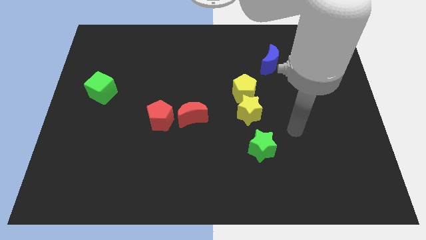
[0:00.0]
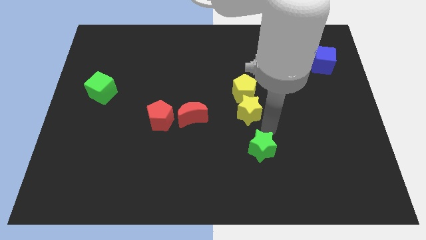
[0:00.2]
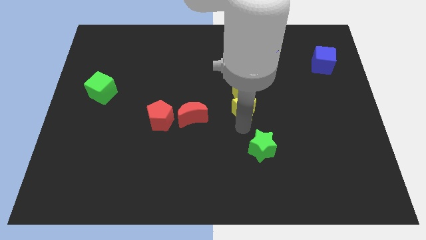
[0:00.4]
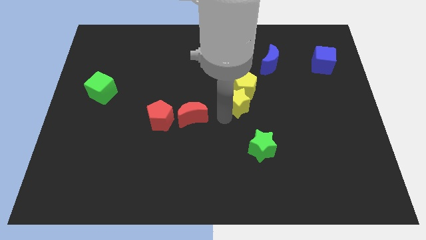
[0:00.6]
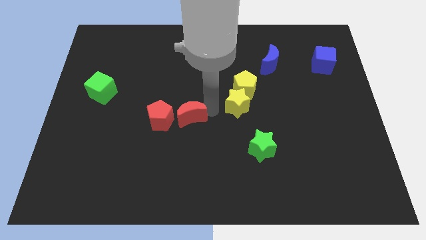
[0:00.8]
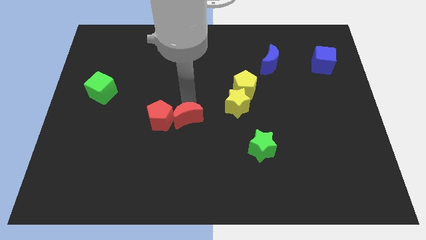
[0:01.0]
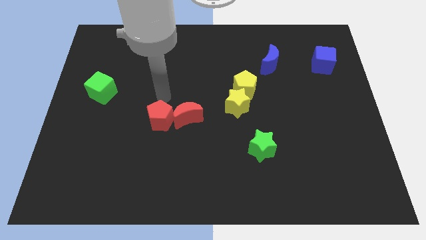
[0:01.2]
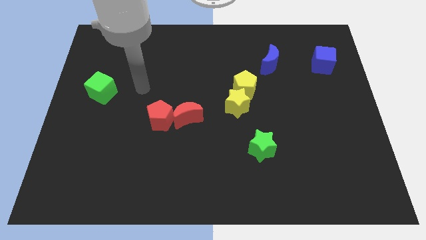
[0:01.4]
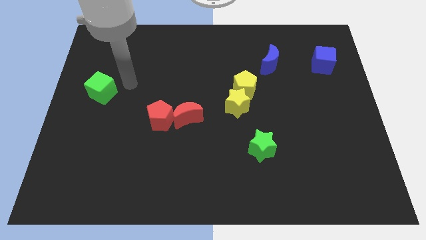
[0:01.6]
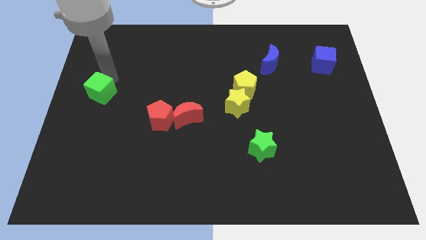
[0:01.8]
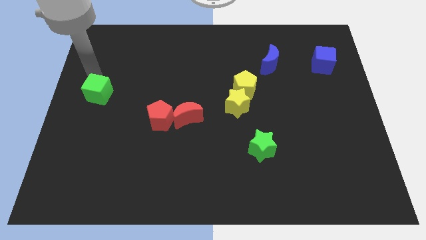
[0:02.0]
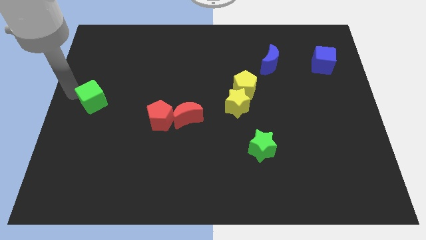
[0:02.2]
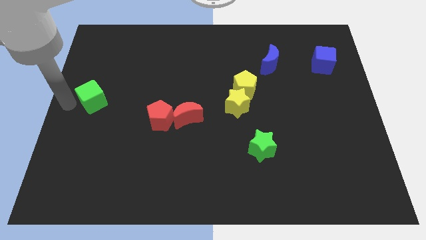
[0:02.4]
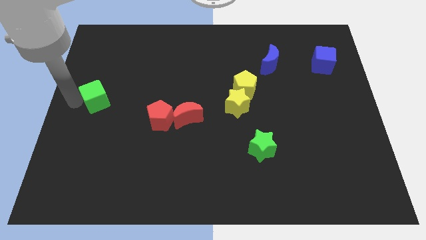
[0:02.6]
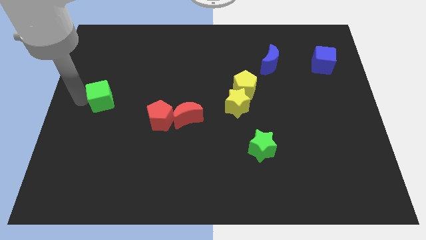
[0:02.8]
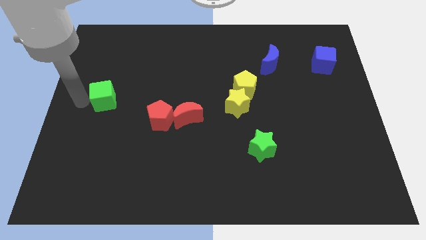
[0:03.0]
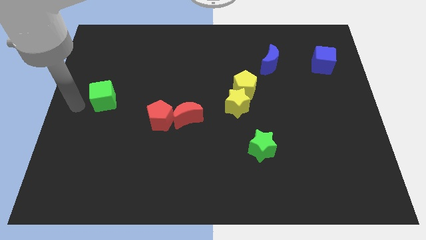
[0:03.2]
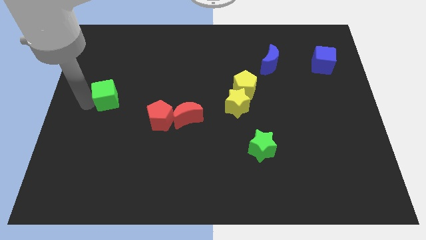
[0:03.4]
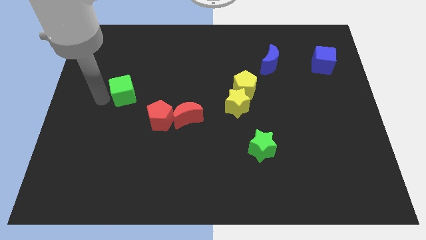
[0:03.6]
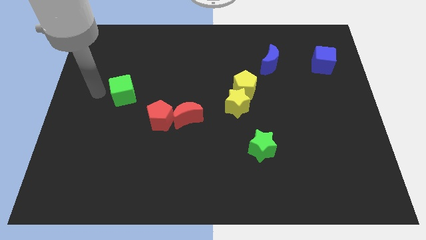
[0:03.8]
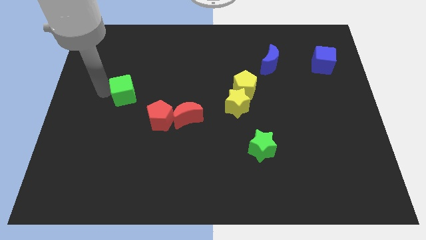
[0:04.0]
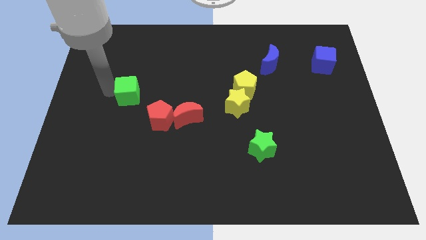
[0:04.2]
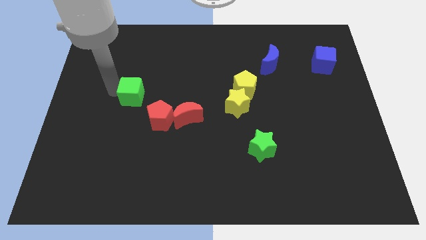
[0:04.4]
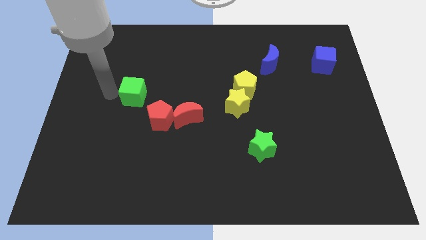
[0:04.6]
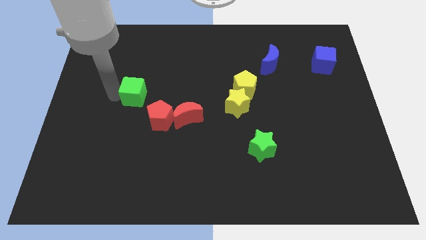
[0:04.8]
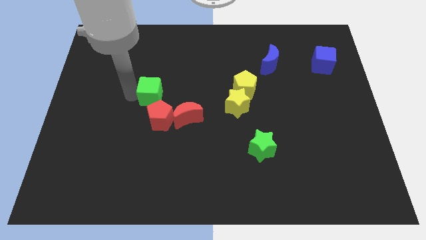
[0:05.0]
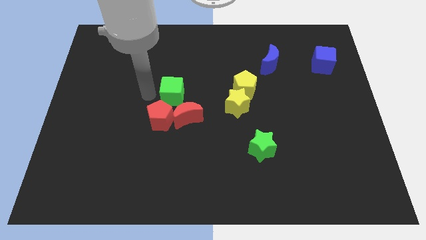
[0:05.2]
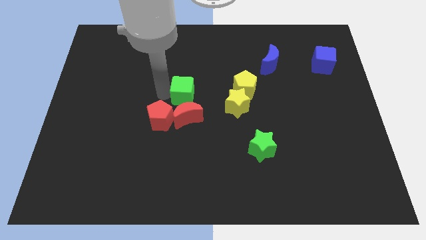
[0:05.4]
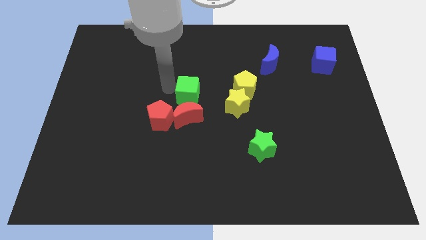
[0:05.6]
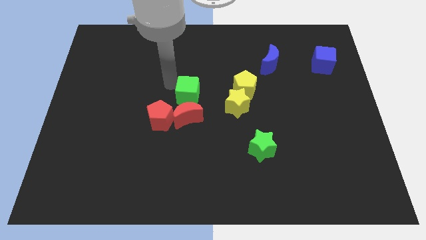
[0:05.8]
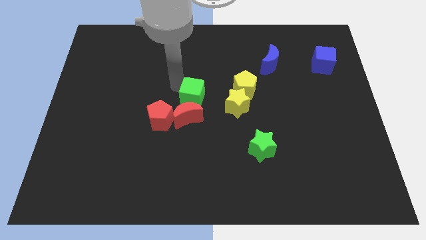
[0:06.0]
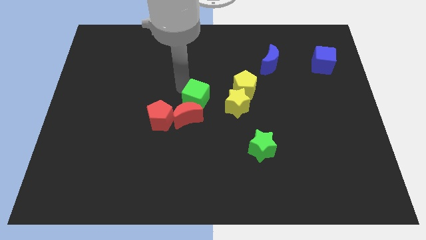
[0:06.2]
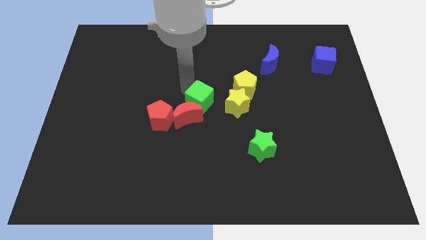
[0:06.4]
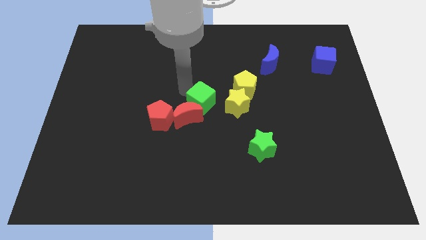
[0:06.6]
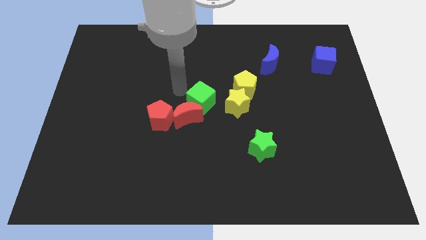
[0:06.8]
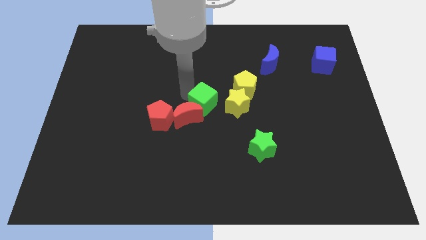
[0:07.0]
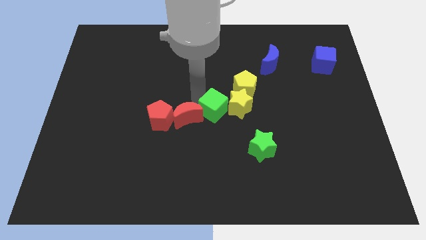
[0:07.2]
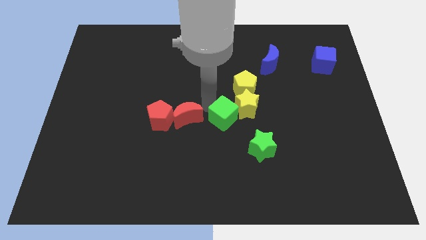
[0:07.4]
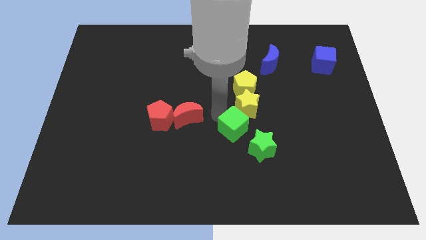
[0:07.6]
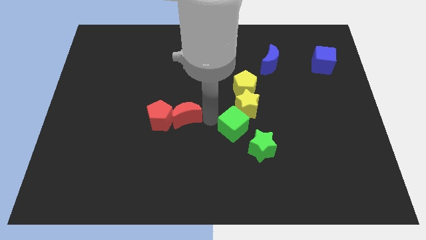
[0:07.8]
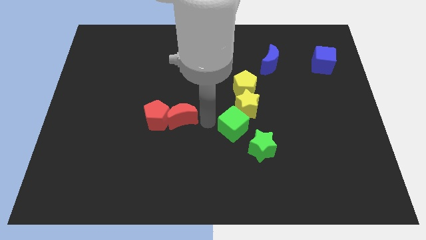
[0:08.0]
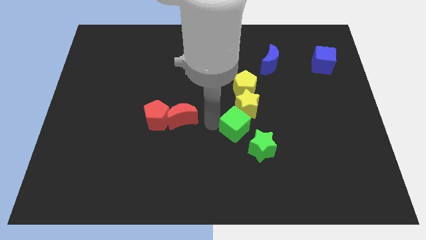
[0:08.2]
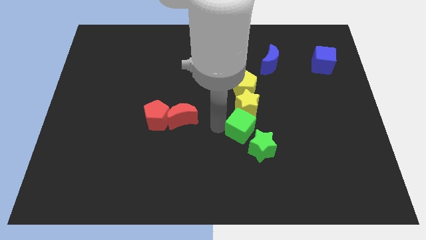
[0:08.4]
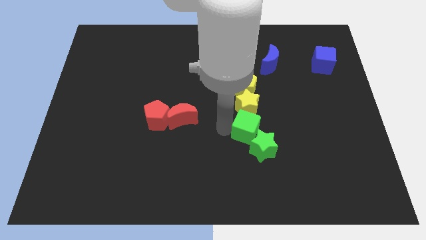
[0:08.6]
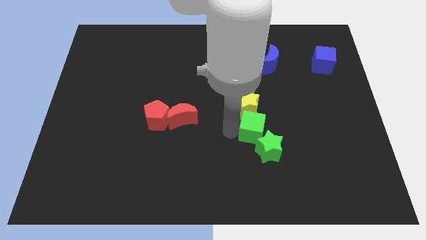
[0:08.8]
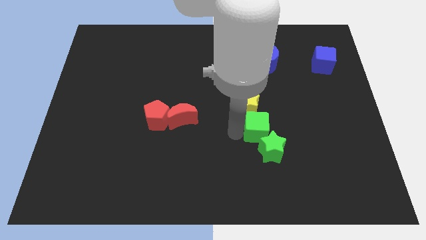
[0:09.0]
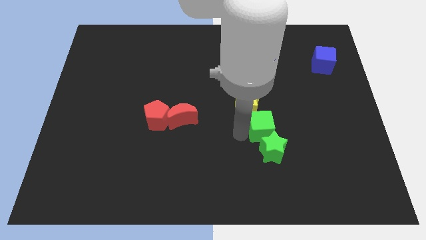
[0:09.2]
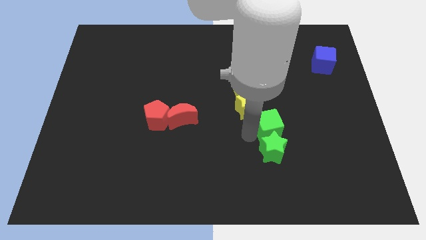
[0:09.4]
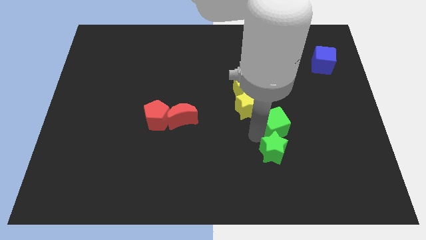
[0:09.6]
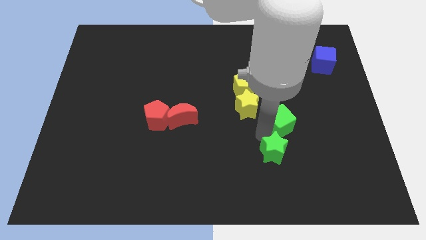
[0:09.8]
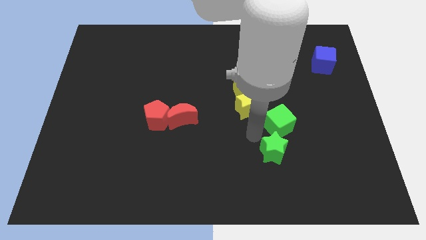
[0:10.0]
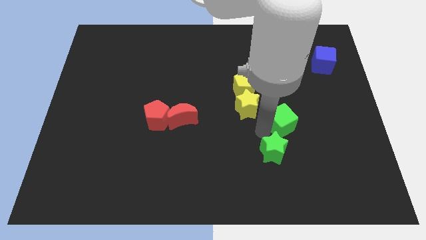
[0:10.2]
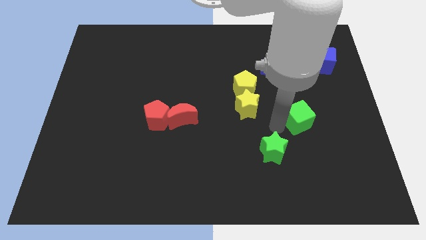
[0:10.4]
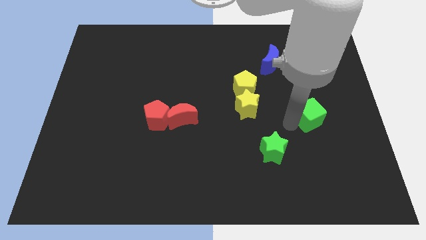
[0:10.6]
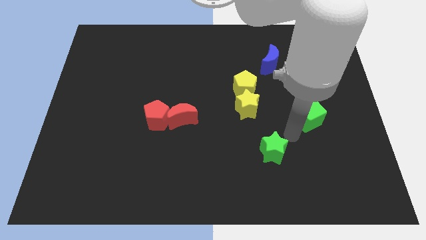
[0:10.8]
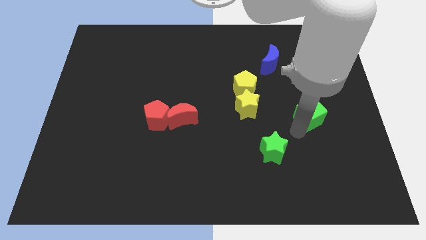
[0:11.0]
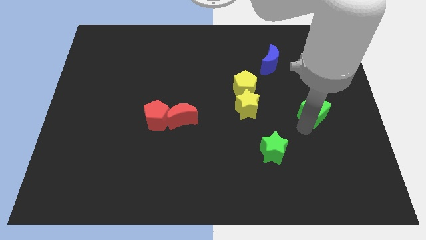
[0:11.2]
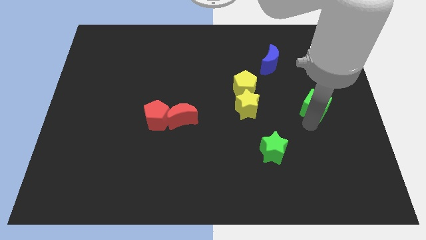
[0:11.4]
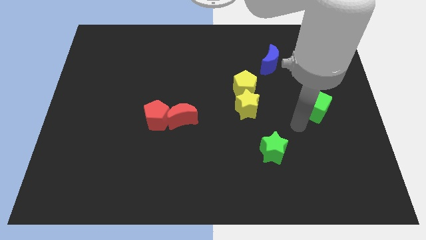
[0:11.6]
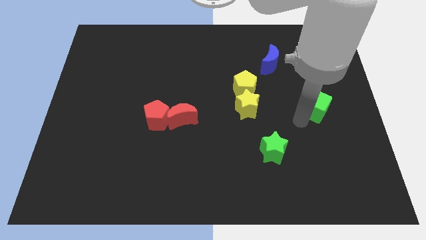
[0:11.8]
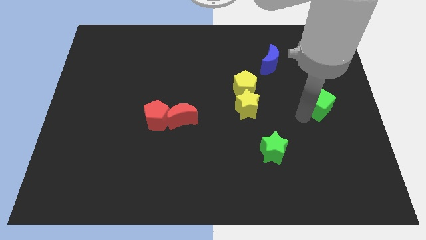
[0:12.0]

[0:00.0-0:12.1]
slide the green cube below the blue cube
